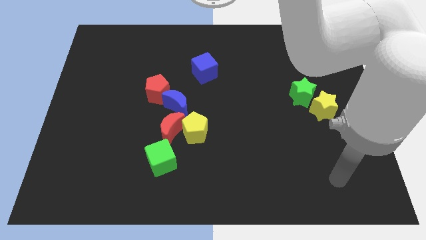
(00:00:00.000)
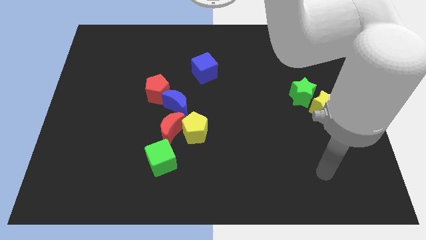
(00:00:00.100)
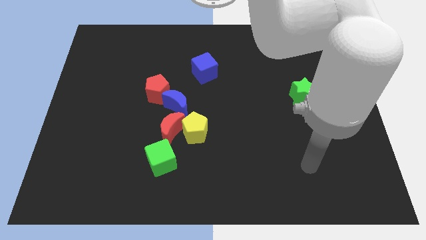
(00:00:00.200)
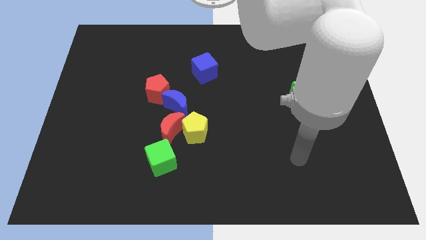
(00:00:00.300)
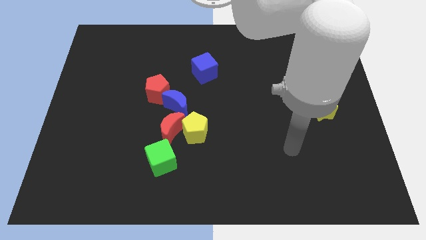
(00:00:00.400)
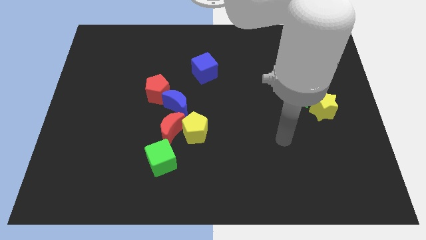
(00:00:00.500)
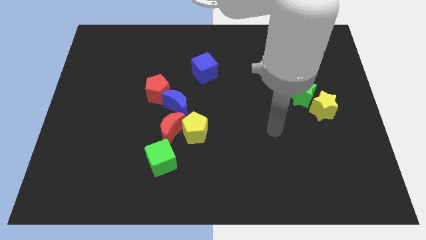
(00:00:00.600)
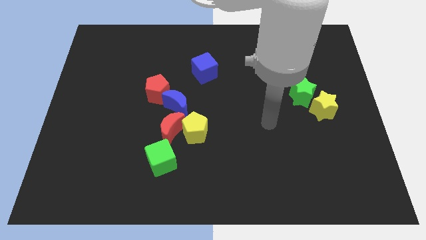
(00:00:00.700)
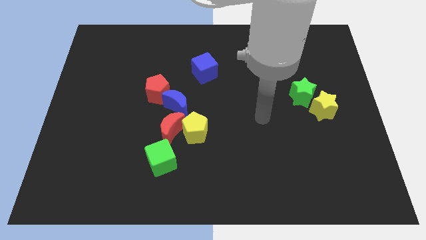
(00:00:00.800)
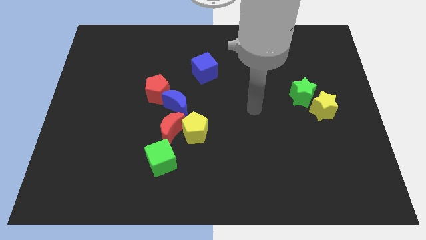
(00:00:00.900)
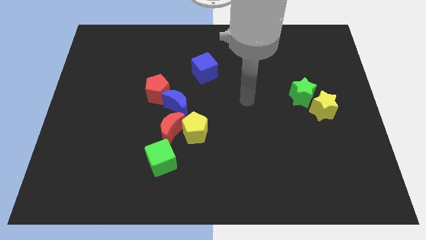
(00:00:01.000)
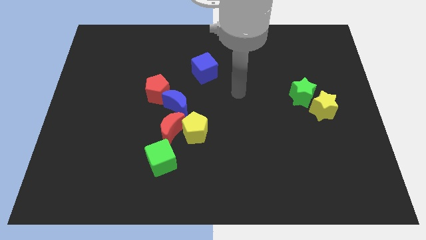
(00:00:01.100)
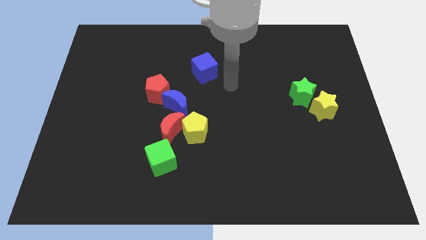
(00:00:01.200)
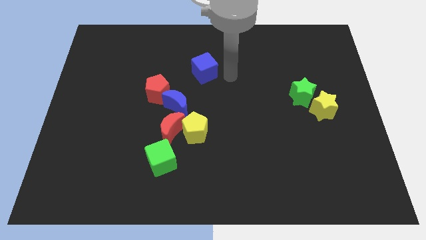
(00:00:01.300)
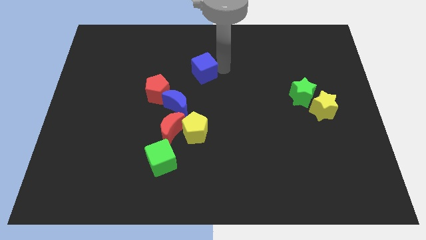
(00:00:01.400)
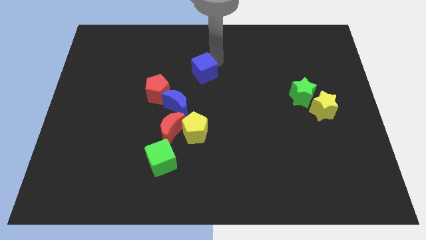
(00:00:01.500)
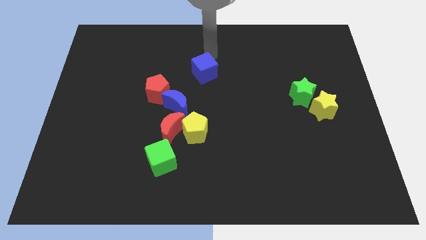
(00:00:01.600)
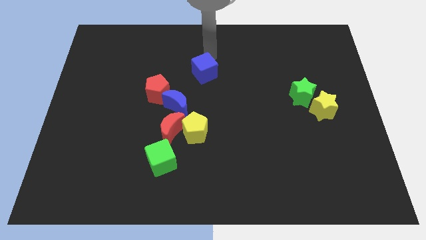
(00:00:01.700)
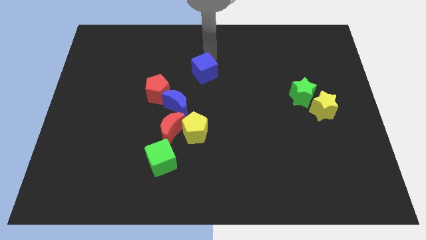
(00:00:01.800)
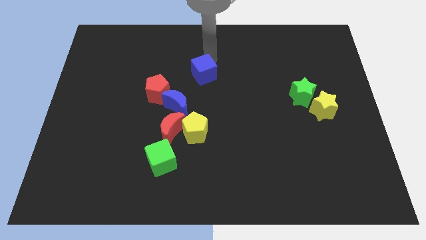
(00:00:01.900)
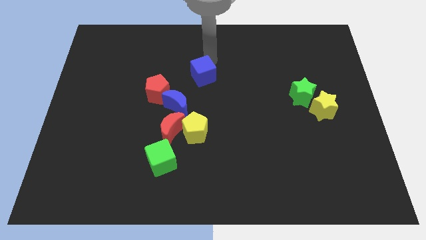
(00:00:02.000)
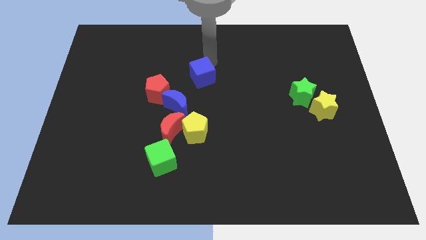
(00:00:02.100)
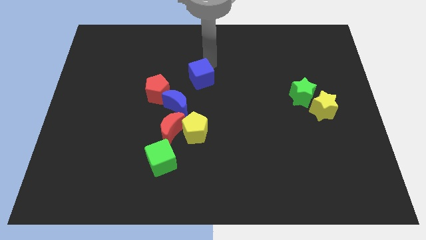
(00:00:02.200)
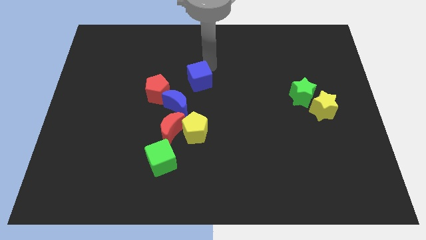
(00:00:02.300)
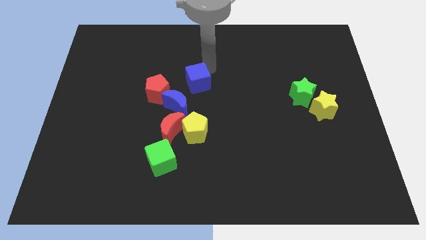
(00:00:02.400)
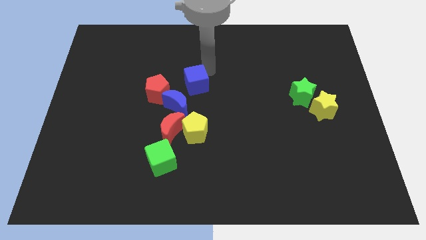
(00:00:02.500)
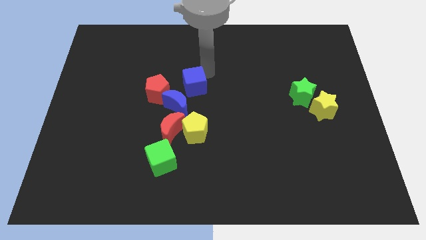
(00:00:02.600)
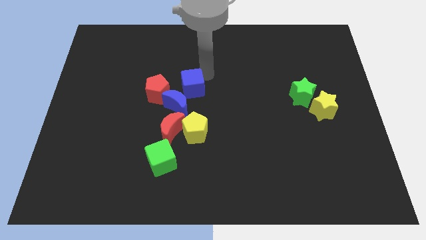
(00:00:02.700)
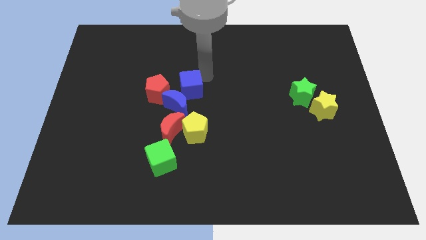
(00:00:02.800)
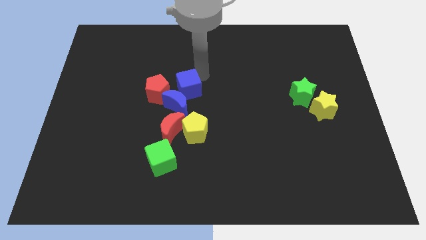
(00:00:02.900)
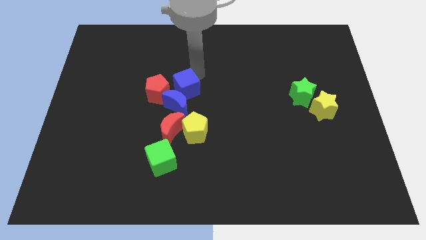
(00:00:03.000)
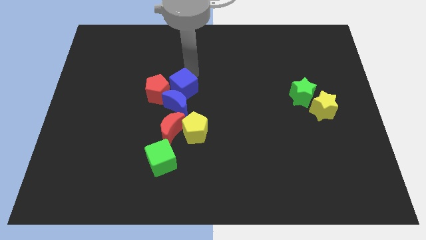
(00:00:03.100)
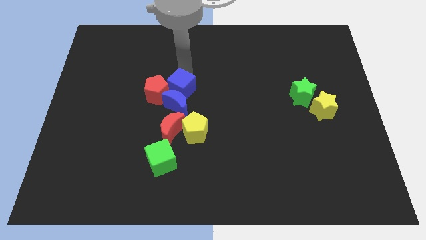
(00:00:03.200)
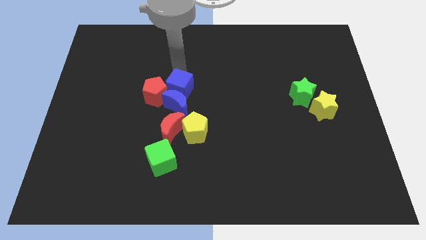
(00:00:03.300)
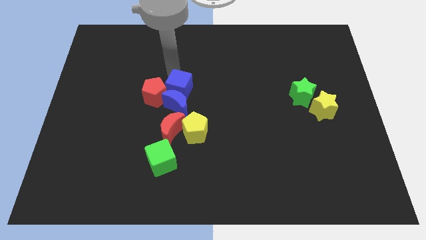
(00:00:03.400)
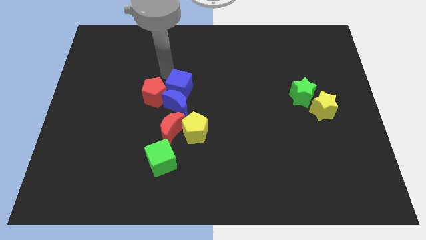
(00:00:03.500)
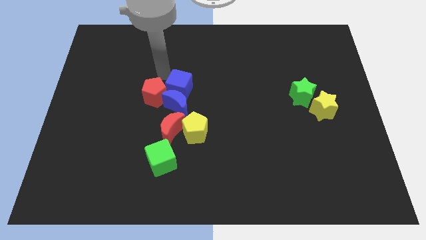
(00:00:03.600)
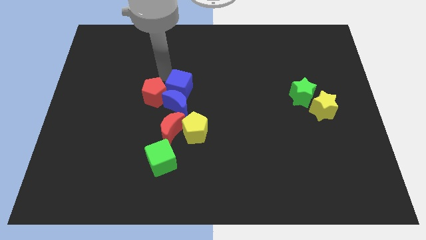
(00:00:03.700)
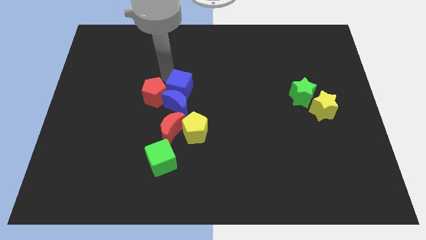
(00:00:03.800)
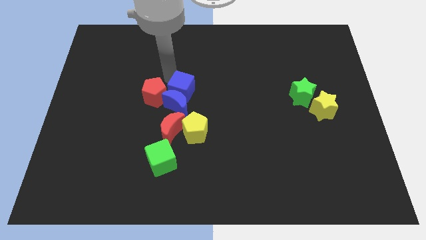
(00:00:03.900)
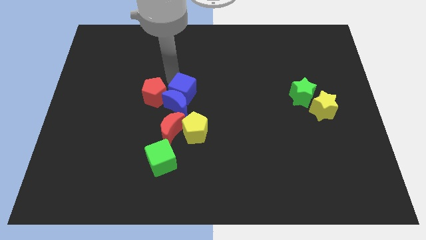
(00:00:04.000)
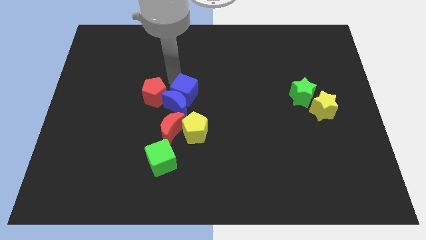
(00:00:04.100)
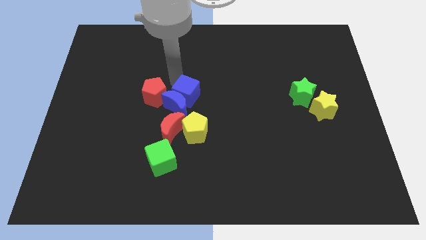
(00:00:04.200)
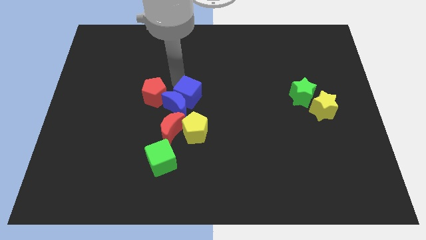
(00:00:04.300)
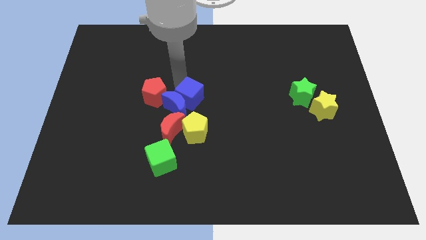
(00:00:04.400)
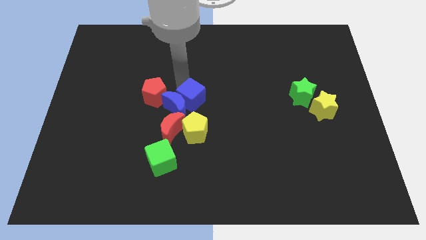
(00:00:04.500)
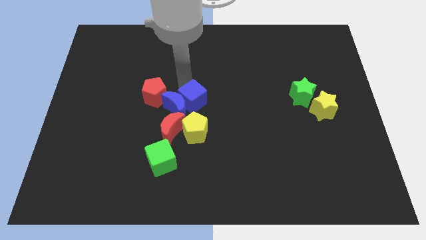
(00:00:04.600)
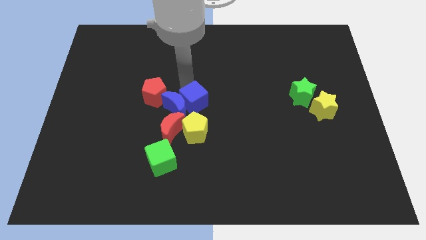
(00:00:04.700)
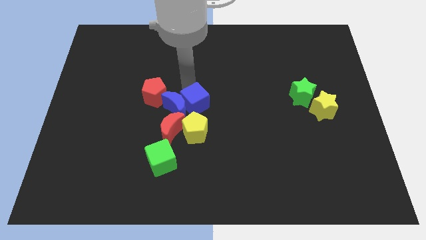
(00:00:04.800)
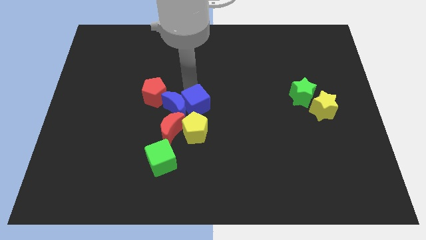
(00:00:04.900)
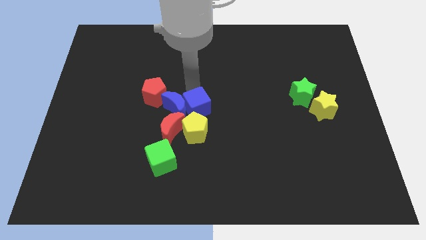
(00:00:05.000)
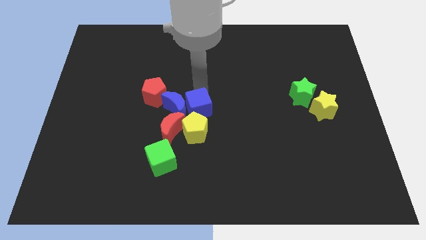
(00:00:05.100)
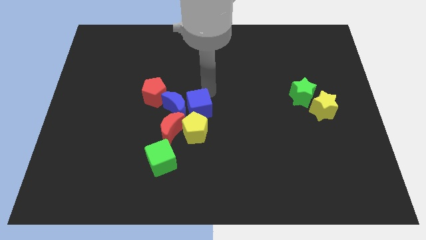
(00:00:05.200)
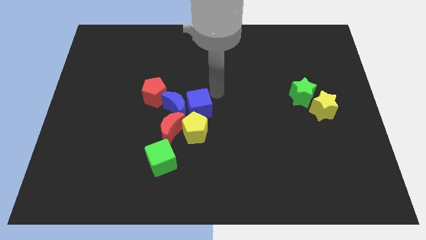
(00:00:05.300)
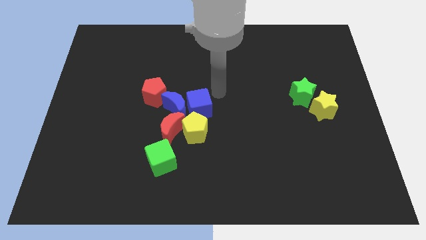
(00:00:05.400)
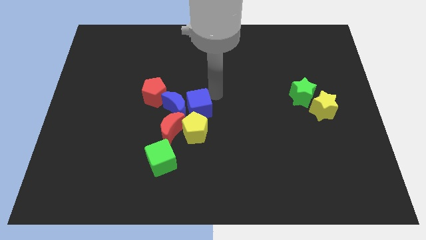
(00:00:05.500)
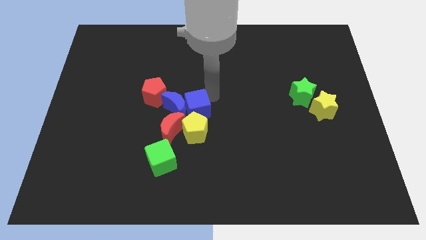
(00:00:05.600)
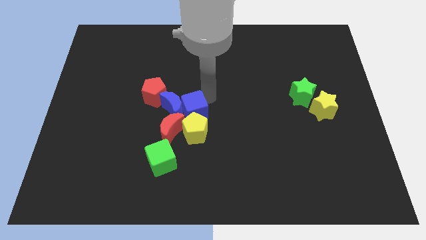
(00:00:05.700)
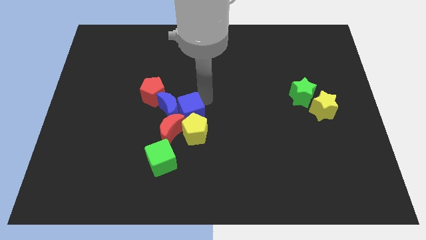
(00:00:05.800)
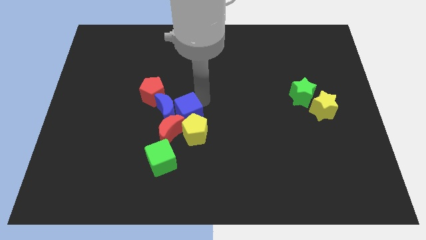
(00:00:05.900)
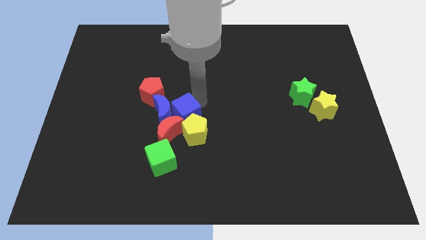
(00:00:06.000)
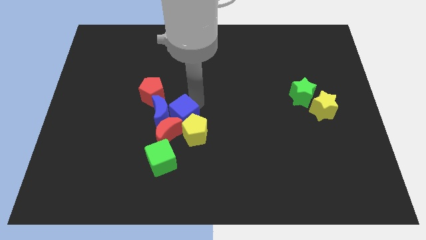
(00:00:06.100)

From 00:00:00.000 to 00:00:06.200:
push the blue cube to the red moon

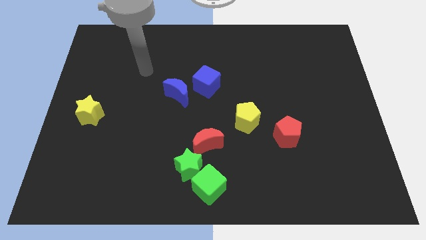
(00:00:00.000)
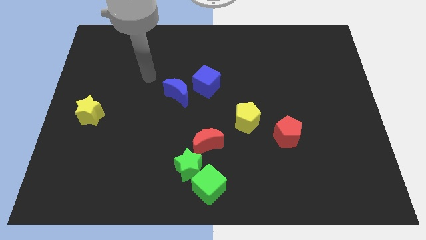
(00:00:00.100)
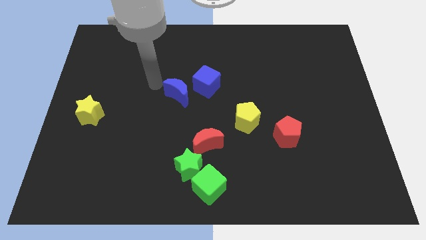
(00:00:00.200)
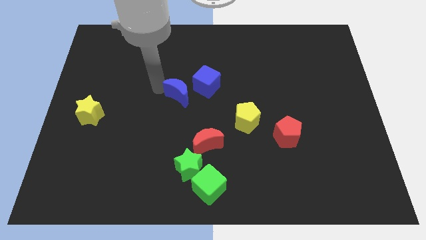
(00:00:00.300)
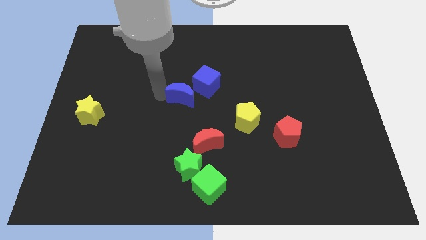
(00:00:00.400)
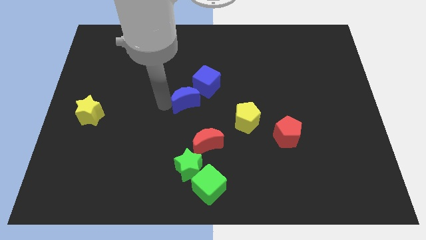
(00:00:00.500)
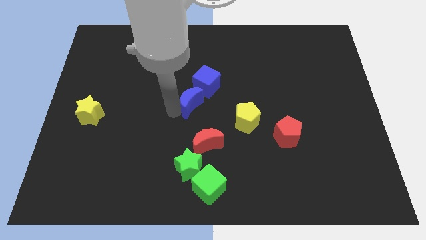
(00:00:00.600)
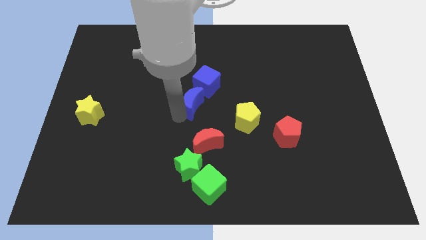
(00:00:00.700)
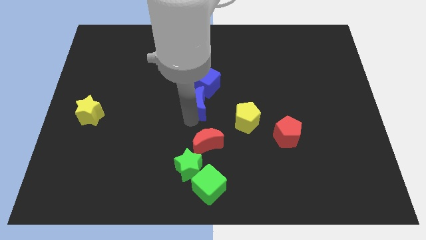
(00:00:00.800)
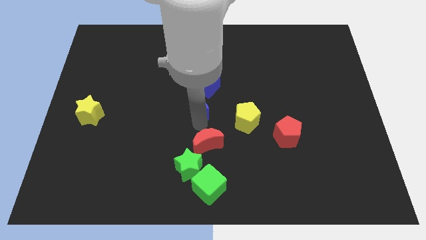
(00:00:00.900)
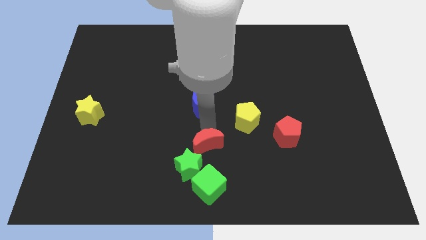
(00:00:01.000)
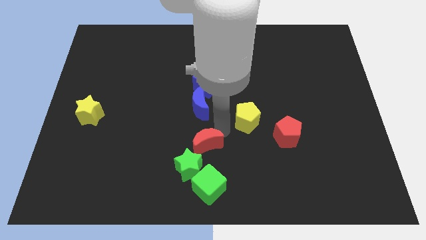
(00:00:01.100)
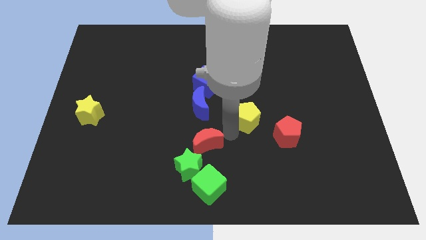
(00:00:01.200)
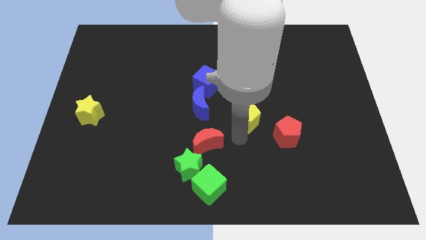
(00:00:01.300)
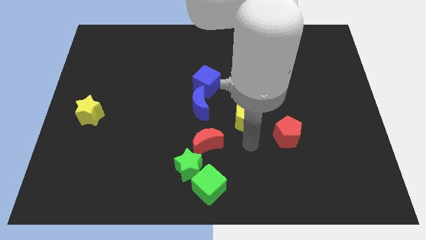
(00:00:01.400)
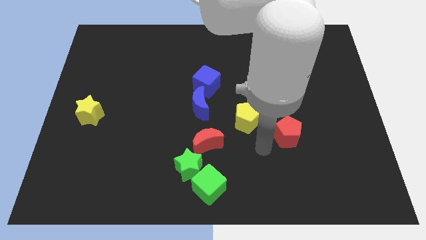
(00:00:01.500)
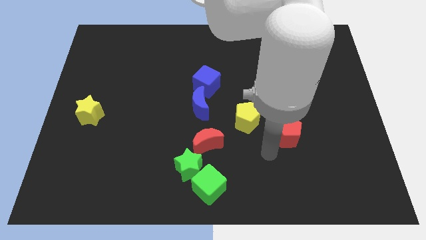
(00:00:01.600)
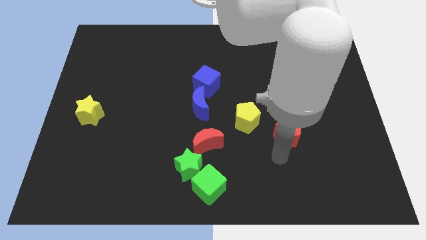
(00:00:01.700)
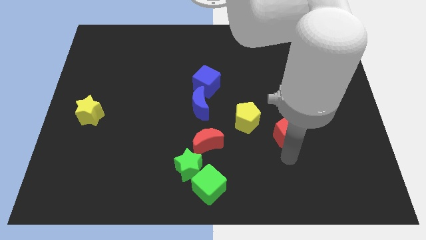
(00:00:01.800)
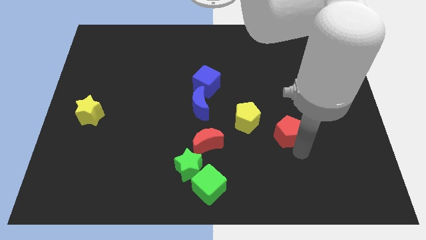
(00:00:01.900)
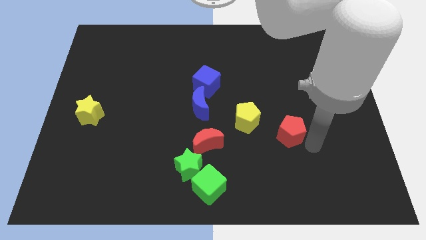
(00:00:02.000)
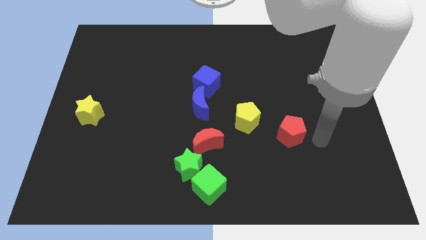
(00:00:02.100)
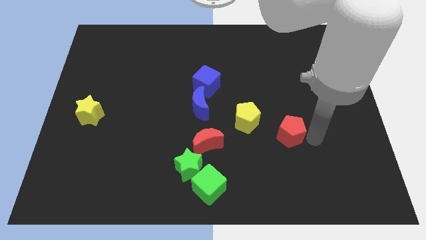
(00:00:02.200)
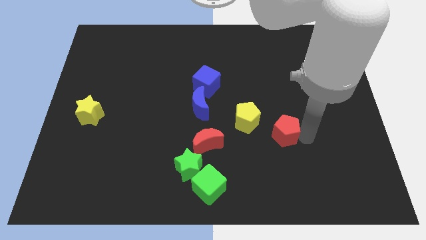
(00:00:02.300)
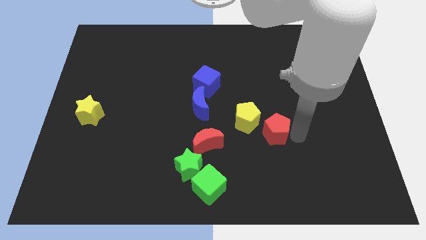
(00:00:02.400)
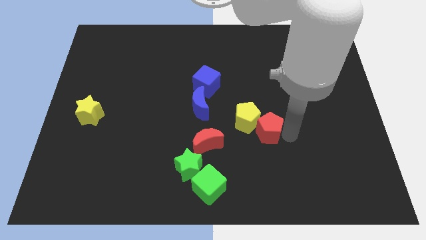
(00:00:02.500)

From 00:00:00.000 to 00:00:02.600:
push the red pentagon to the yellow pentagon
